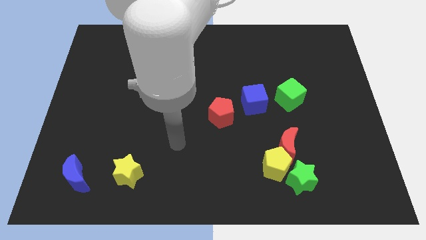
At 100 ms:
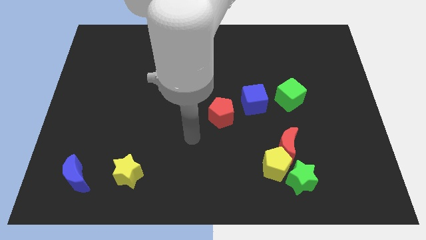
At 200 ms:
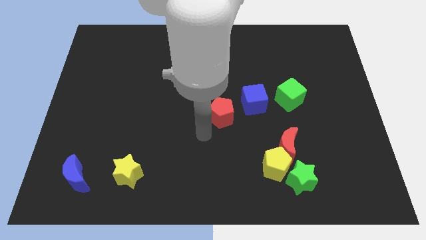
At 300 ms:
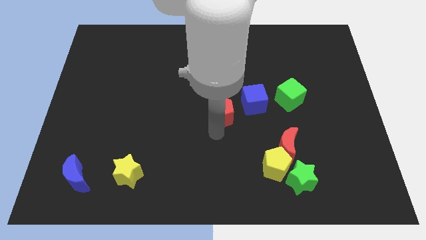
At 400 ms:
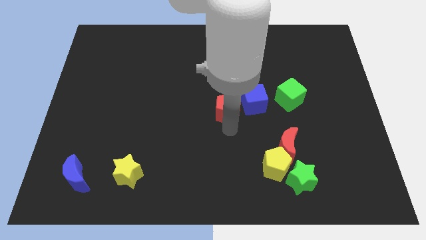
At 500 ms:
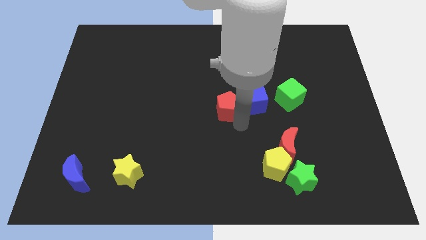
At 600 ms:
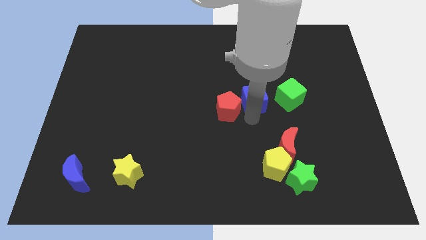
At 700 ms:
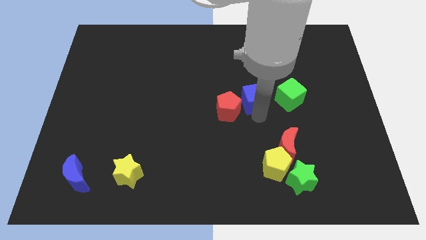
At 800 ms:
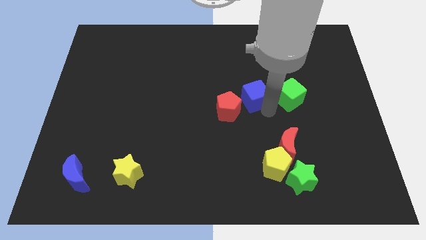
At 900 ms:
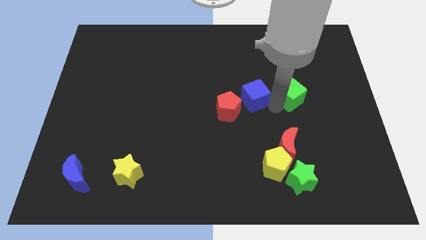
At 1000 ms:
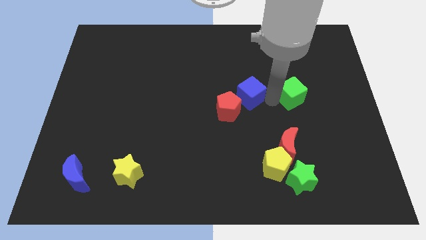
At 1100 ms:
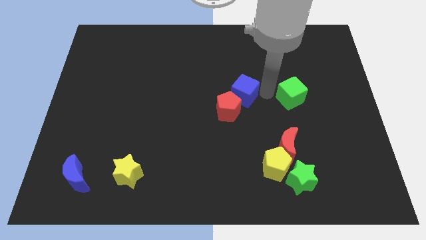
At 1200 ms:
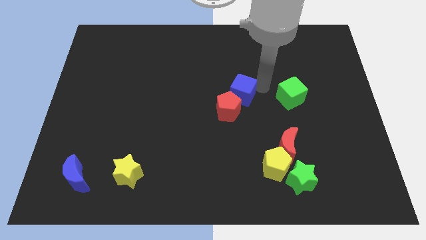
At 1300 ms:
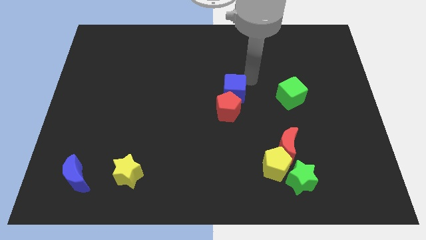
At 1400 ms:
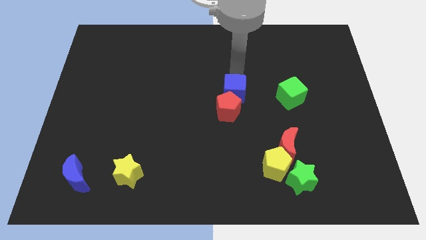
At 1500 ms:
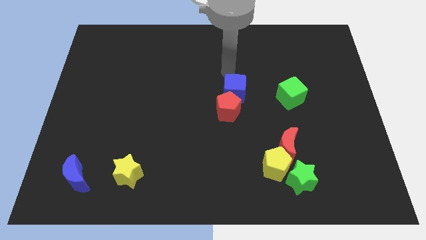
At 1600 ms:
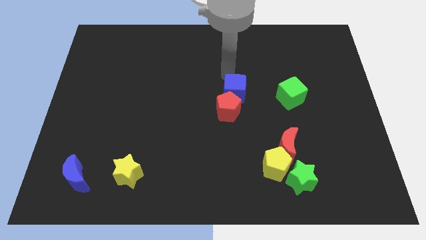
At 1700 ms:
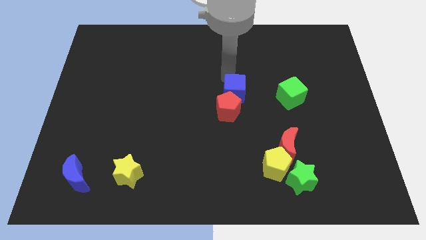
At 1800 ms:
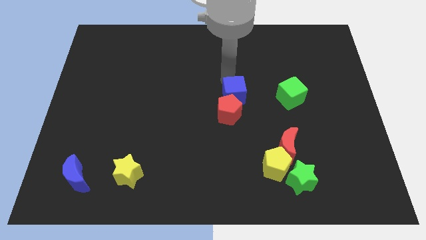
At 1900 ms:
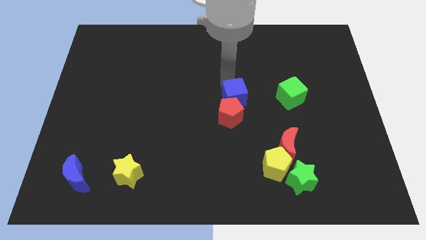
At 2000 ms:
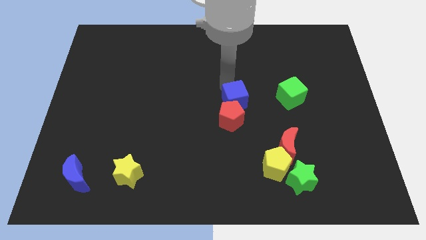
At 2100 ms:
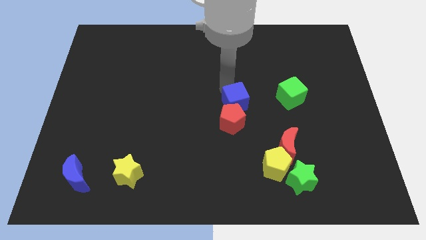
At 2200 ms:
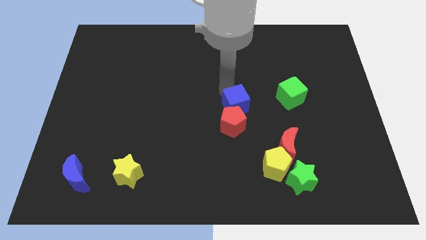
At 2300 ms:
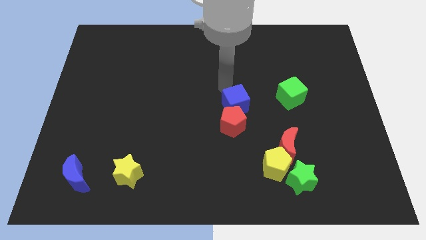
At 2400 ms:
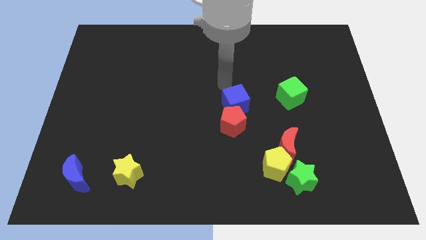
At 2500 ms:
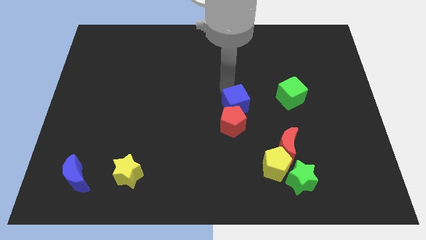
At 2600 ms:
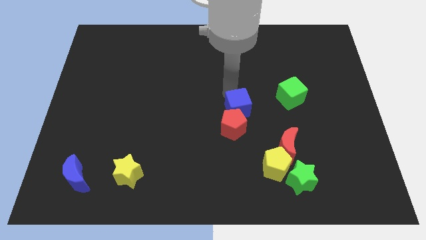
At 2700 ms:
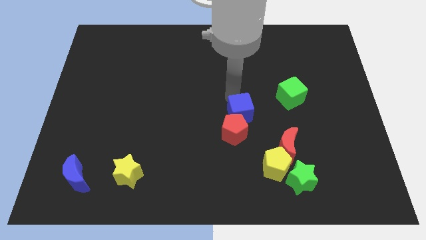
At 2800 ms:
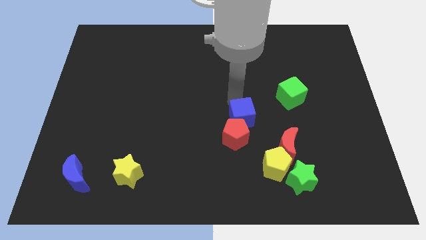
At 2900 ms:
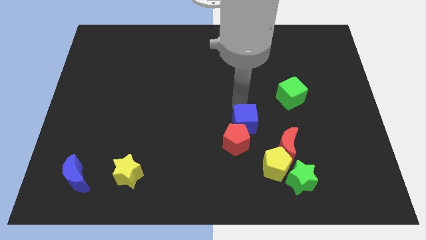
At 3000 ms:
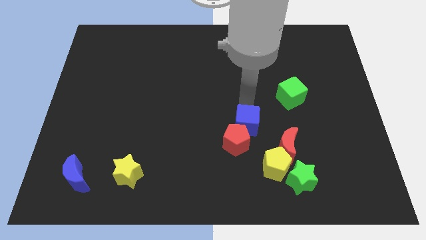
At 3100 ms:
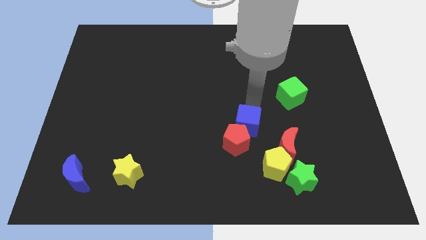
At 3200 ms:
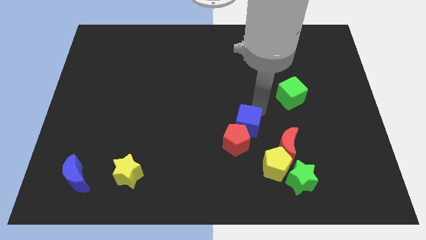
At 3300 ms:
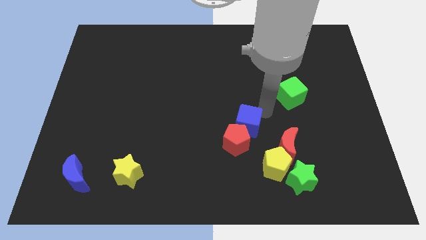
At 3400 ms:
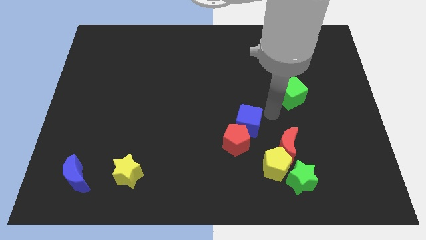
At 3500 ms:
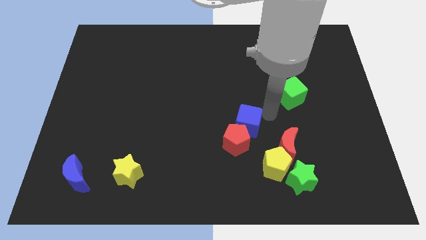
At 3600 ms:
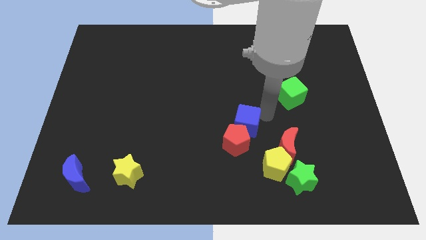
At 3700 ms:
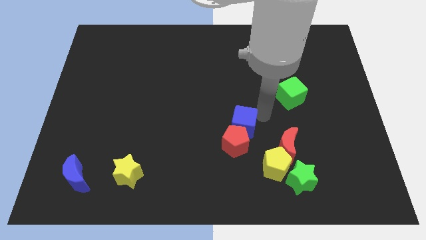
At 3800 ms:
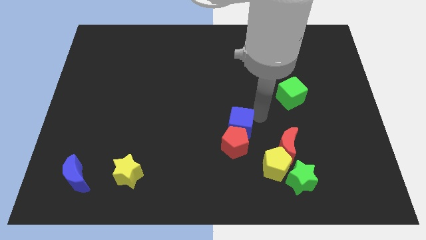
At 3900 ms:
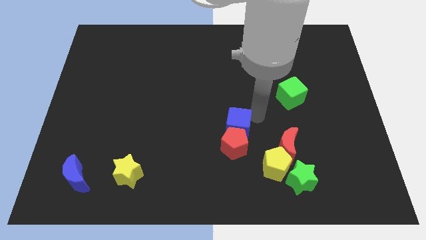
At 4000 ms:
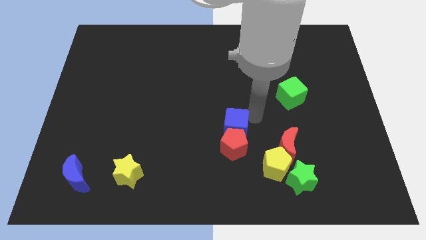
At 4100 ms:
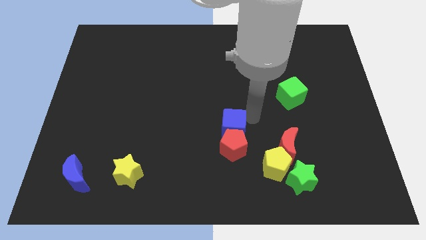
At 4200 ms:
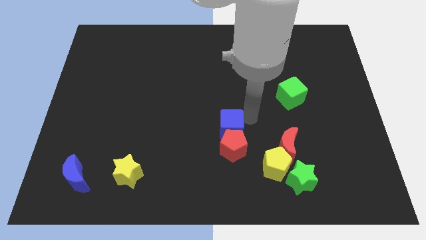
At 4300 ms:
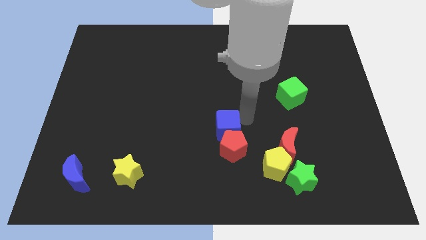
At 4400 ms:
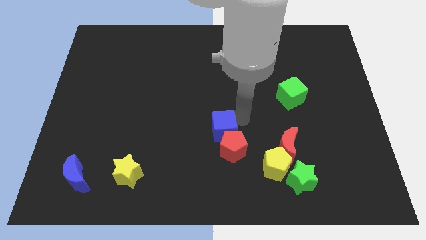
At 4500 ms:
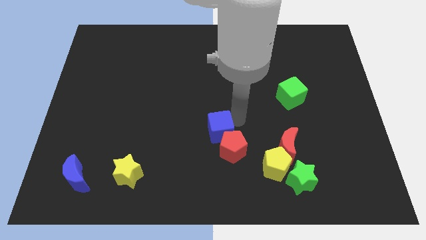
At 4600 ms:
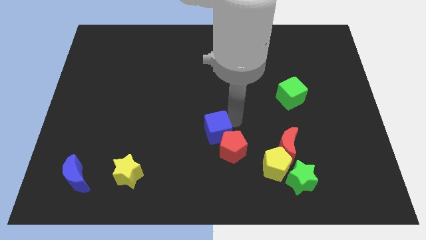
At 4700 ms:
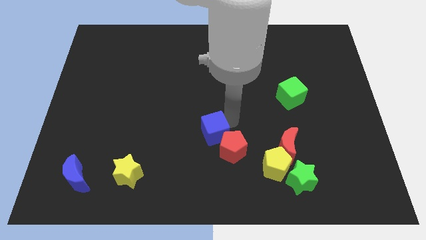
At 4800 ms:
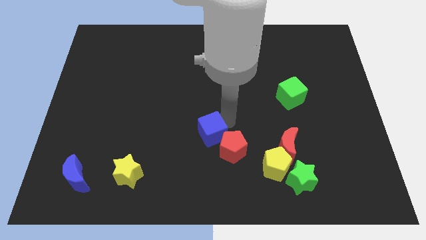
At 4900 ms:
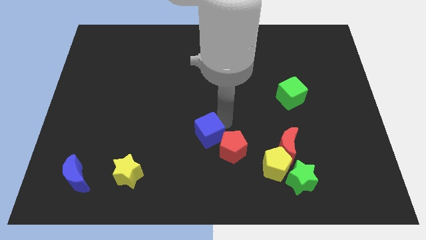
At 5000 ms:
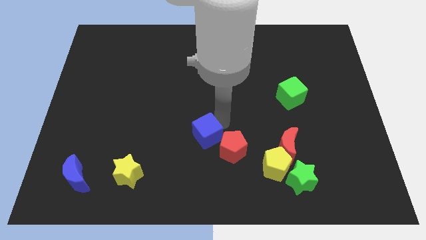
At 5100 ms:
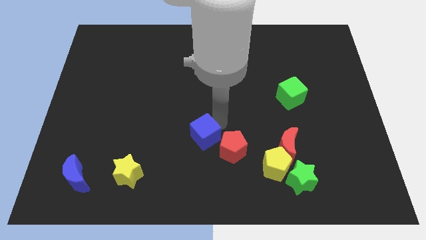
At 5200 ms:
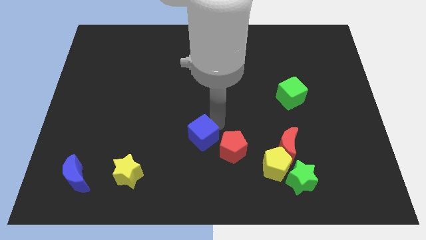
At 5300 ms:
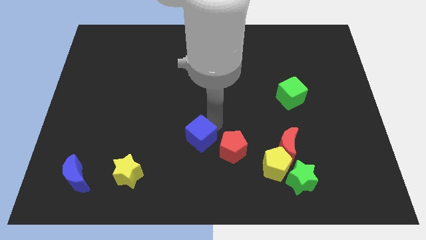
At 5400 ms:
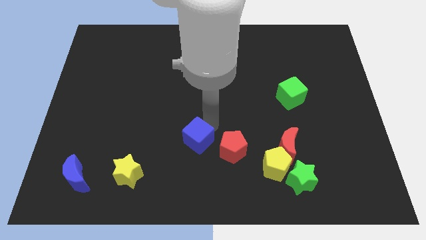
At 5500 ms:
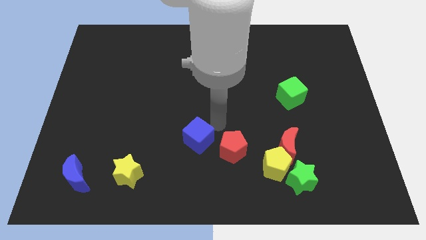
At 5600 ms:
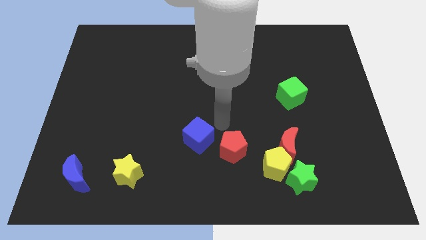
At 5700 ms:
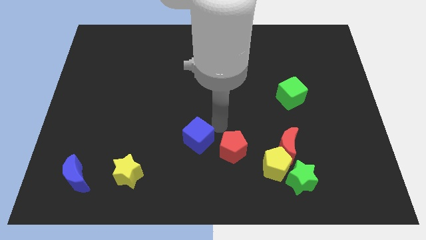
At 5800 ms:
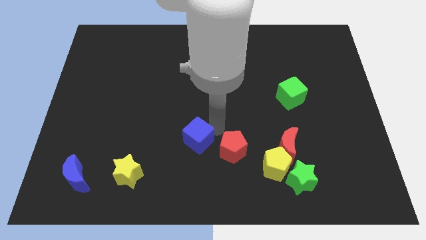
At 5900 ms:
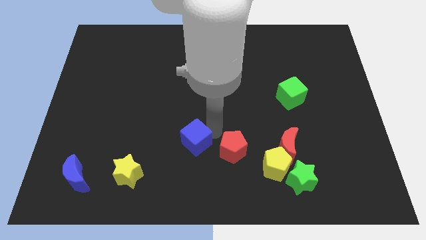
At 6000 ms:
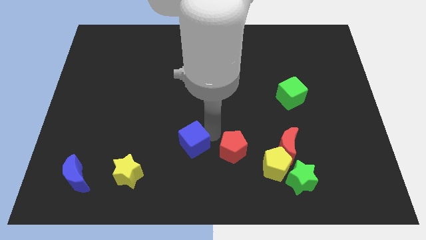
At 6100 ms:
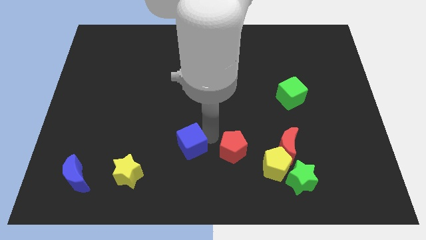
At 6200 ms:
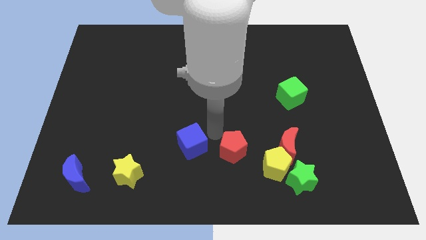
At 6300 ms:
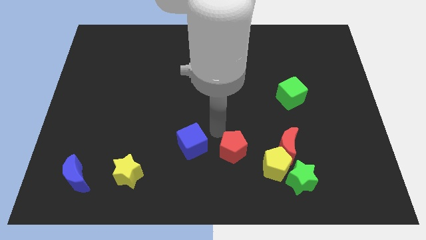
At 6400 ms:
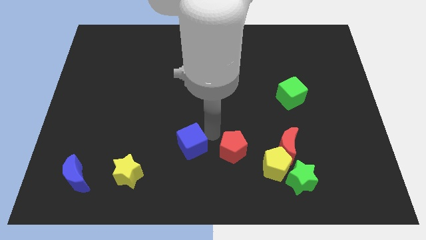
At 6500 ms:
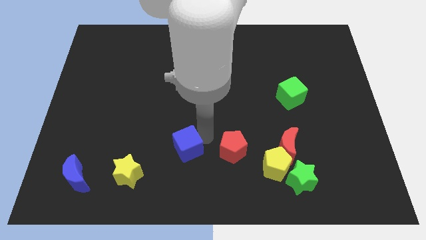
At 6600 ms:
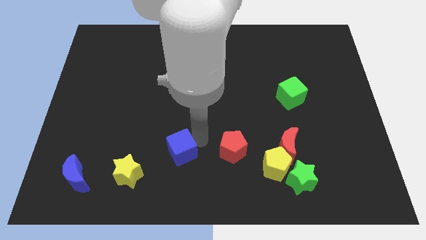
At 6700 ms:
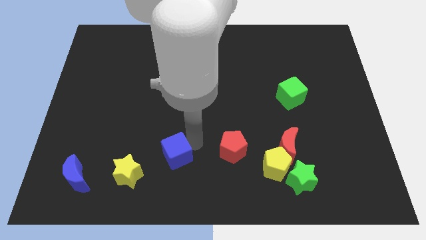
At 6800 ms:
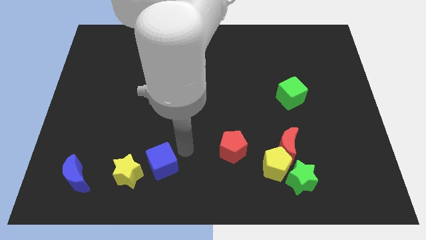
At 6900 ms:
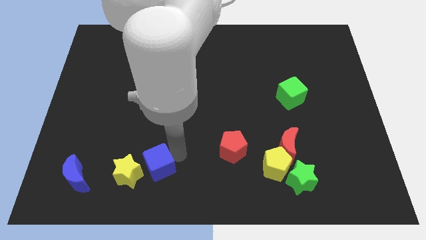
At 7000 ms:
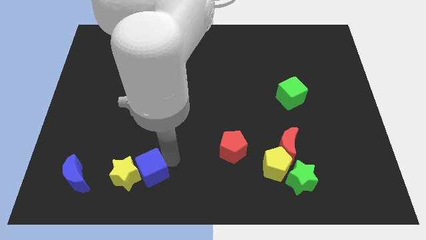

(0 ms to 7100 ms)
put the blue cube close to the yellow star
